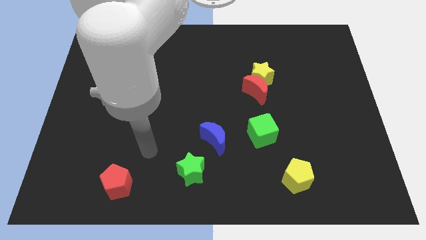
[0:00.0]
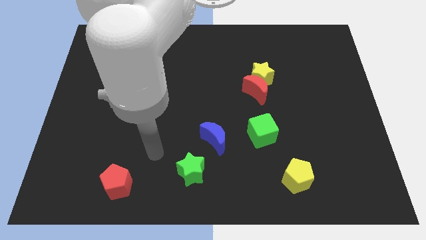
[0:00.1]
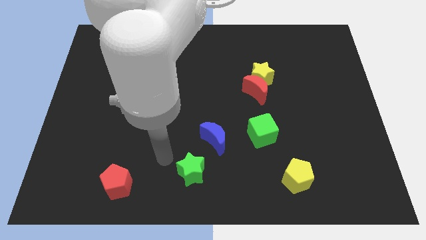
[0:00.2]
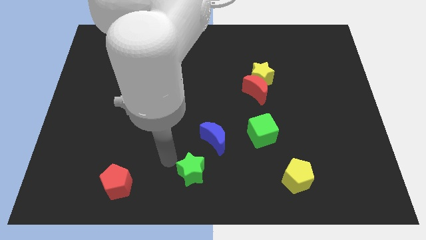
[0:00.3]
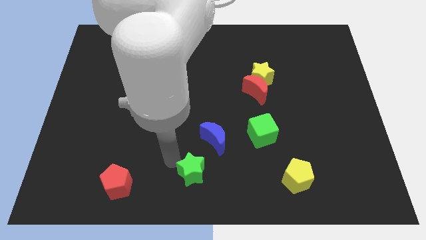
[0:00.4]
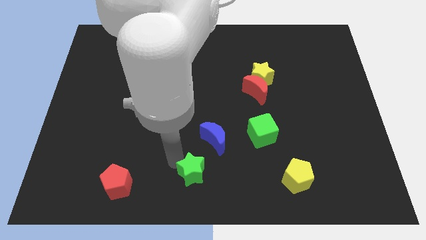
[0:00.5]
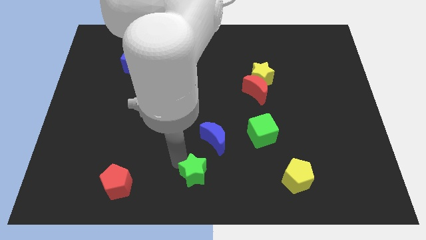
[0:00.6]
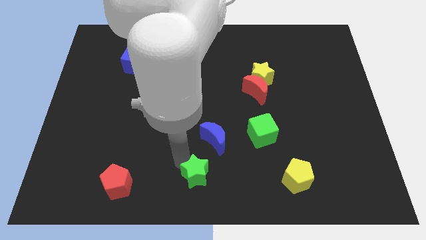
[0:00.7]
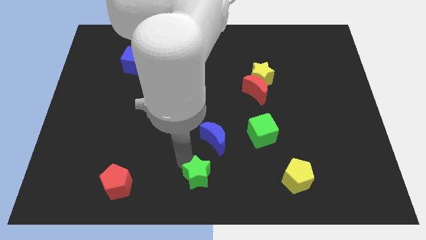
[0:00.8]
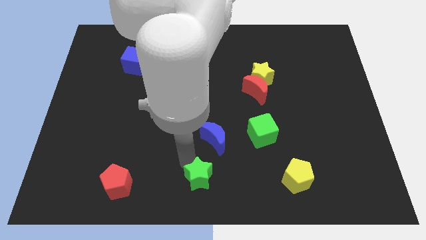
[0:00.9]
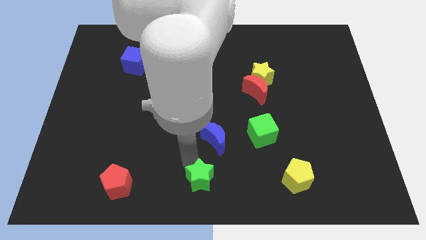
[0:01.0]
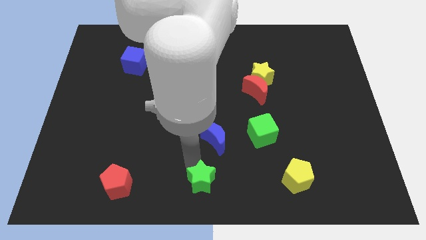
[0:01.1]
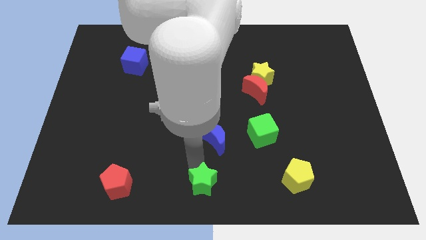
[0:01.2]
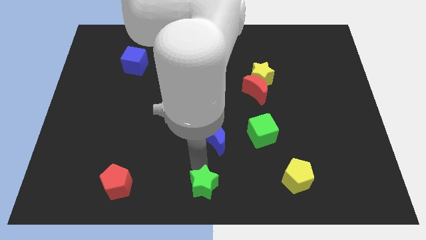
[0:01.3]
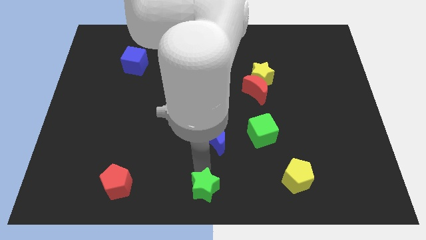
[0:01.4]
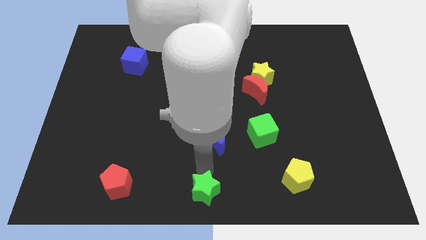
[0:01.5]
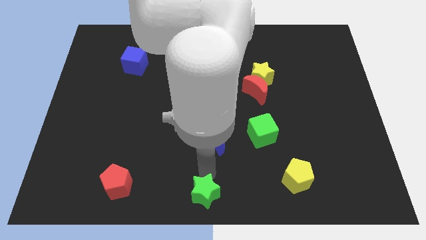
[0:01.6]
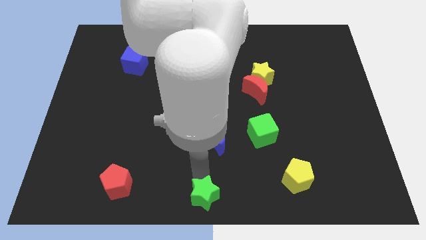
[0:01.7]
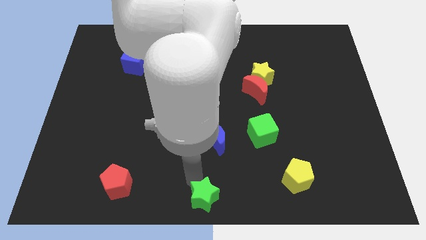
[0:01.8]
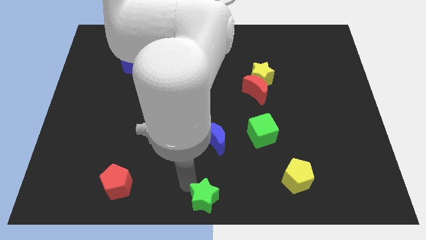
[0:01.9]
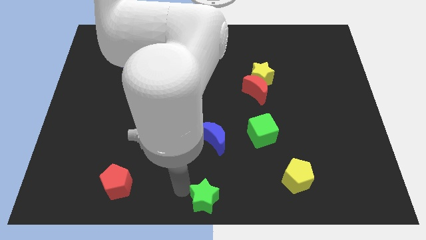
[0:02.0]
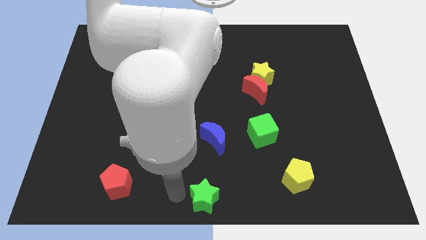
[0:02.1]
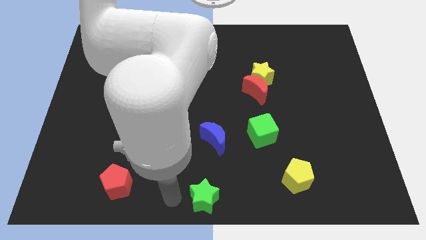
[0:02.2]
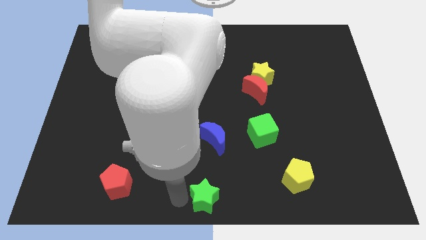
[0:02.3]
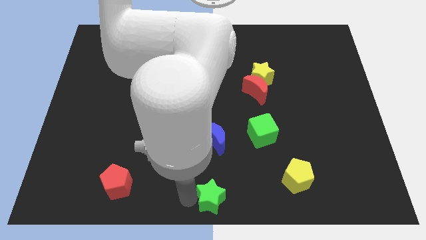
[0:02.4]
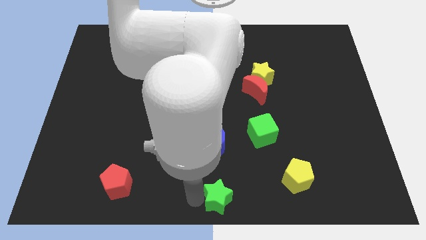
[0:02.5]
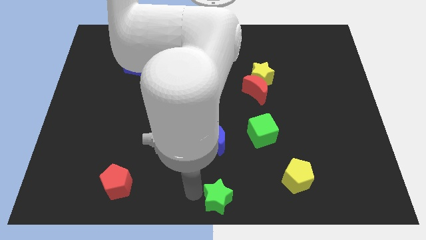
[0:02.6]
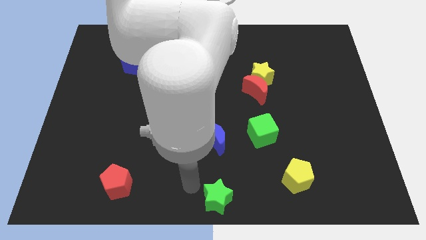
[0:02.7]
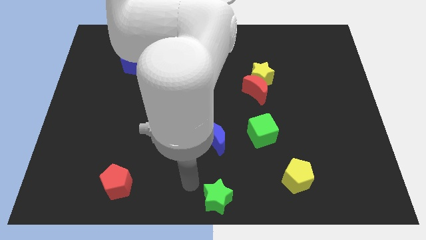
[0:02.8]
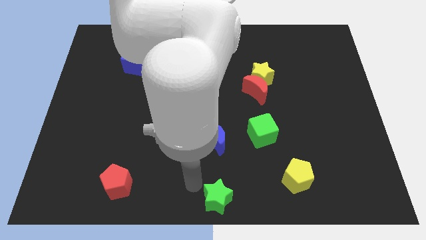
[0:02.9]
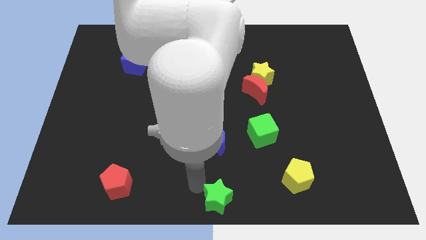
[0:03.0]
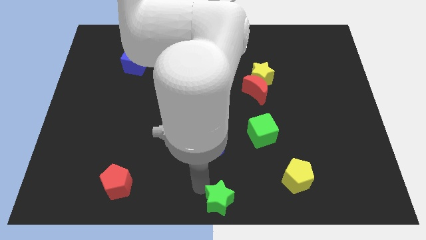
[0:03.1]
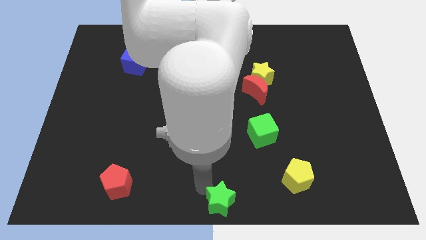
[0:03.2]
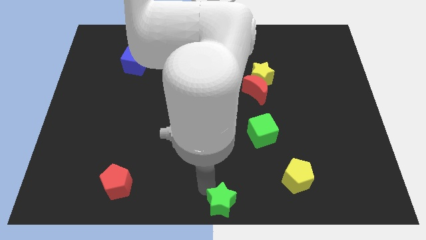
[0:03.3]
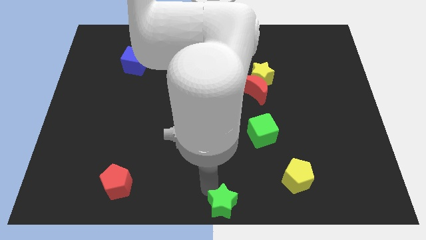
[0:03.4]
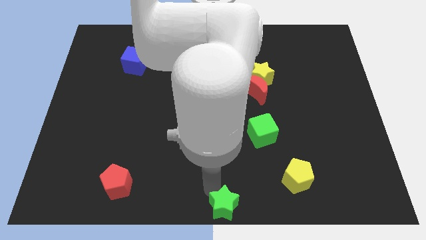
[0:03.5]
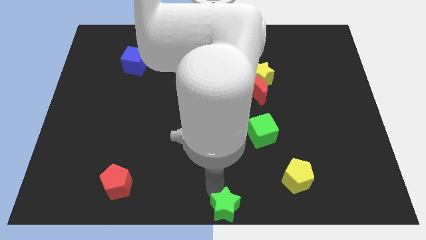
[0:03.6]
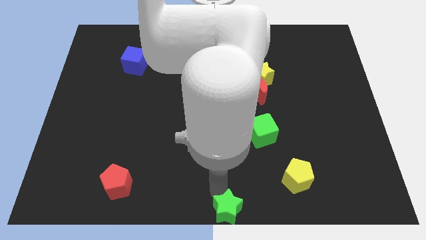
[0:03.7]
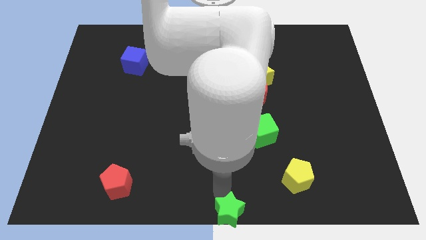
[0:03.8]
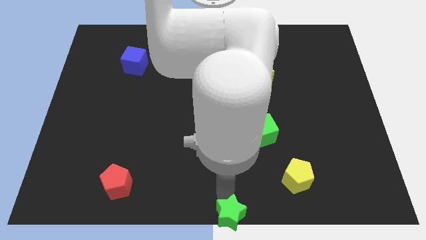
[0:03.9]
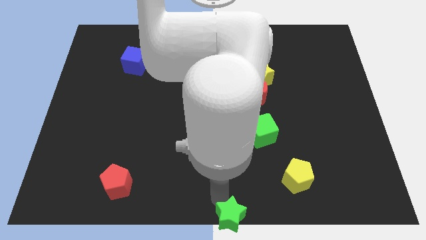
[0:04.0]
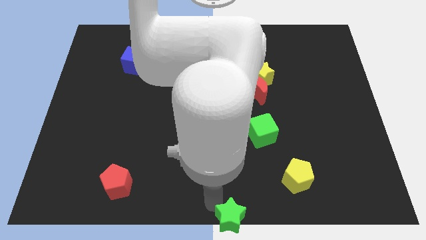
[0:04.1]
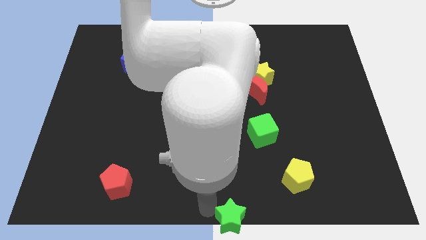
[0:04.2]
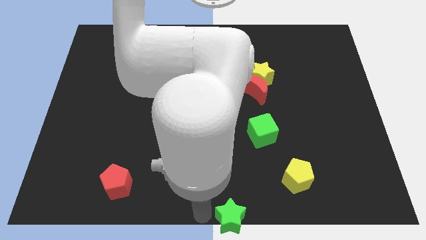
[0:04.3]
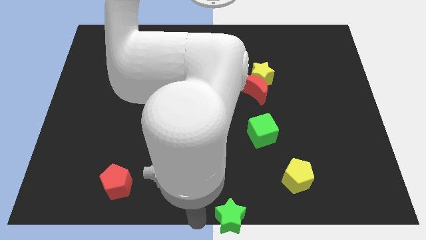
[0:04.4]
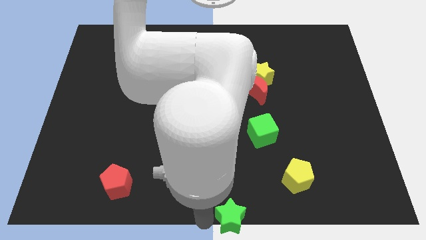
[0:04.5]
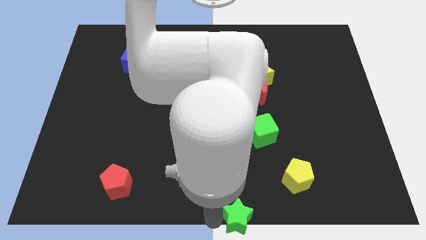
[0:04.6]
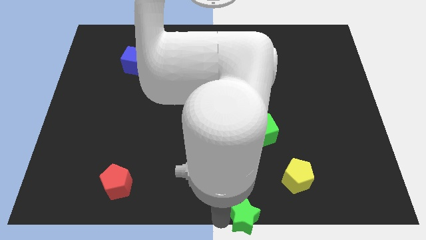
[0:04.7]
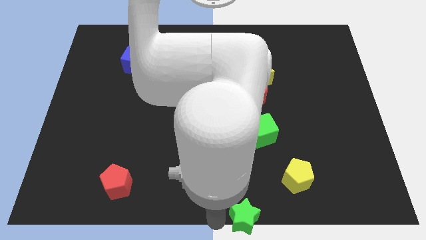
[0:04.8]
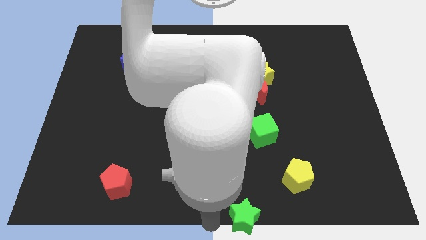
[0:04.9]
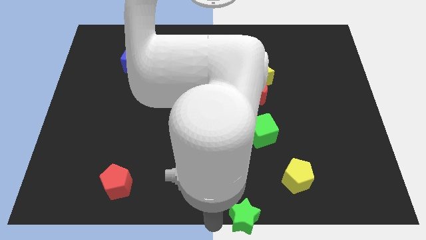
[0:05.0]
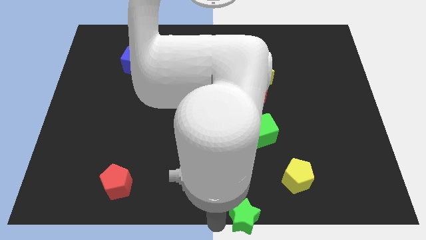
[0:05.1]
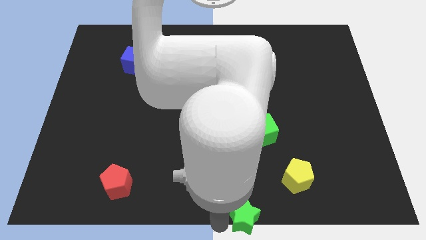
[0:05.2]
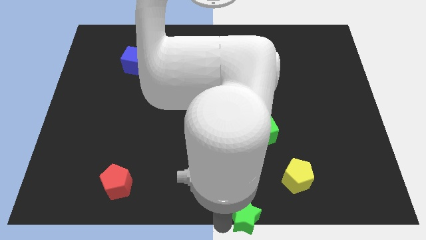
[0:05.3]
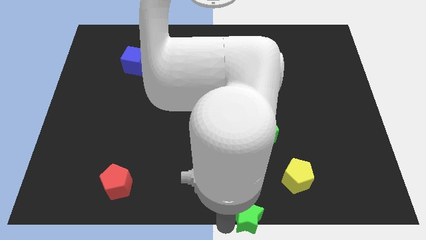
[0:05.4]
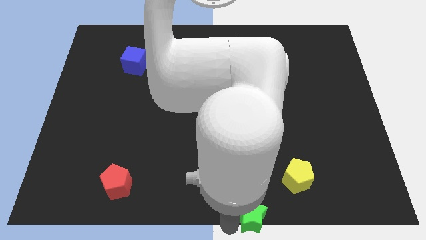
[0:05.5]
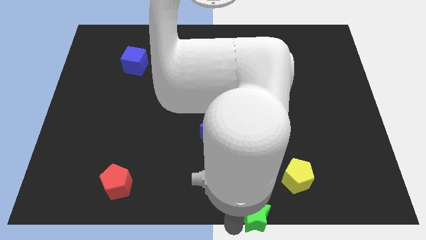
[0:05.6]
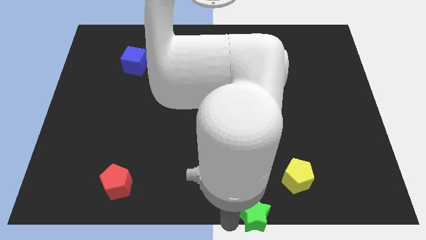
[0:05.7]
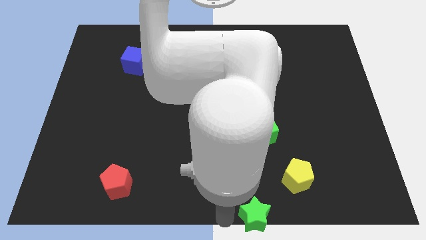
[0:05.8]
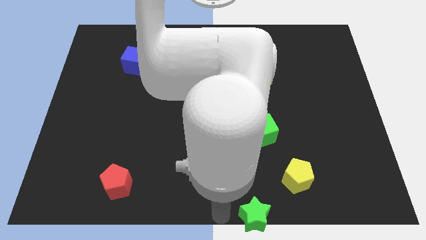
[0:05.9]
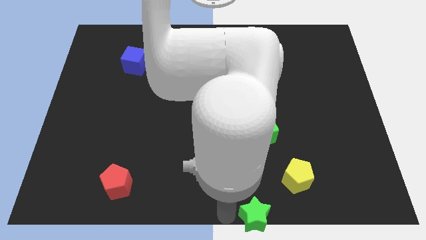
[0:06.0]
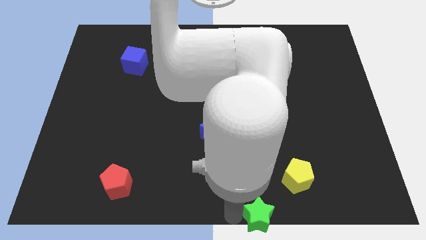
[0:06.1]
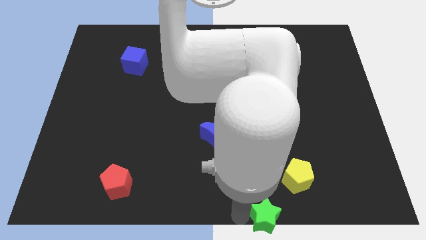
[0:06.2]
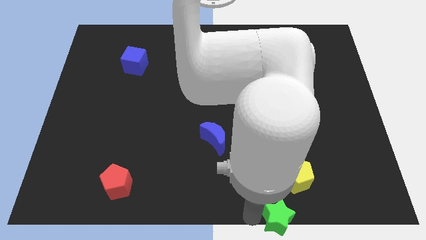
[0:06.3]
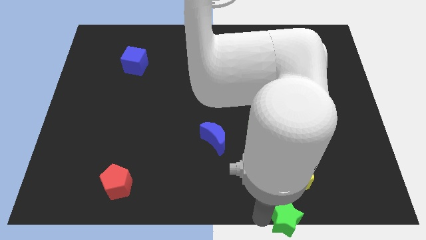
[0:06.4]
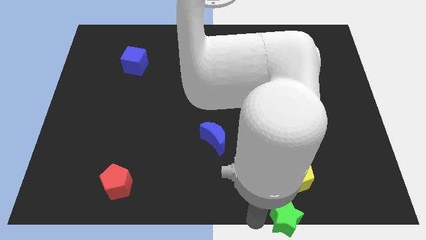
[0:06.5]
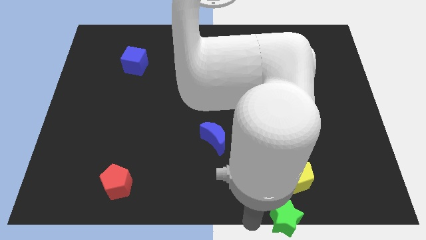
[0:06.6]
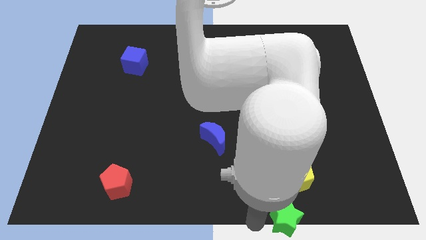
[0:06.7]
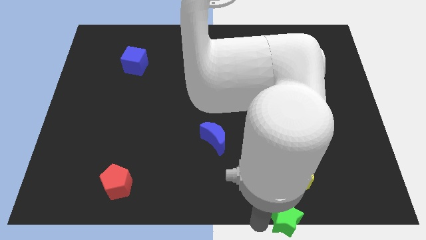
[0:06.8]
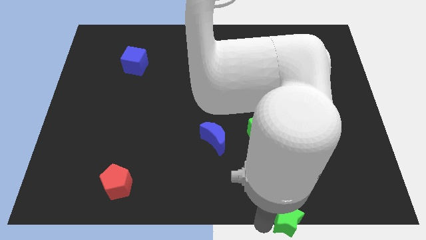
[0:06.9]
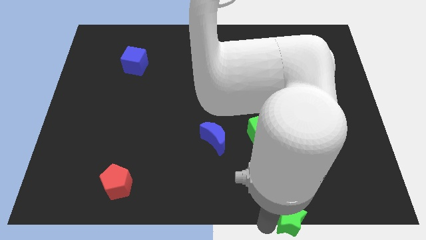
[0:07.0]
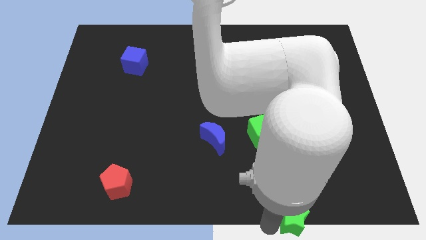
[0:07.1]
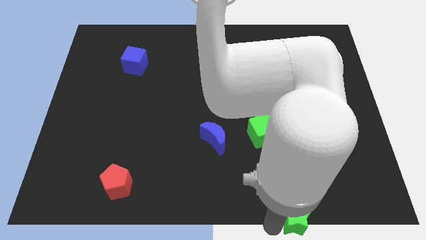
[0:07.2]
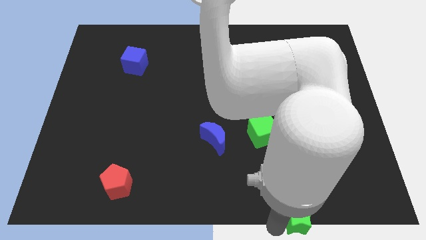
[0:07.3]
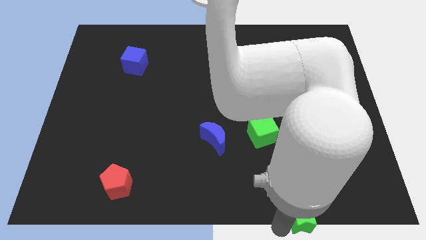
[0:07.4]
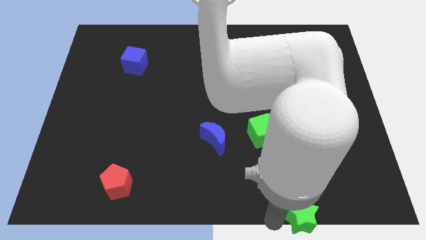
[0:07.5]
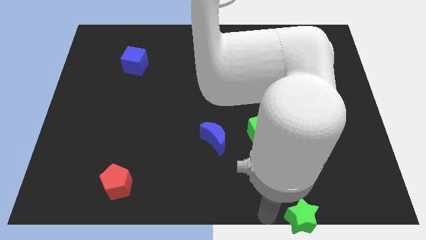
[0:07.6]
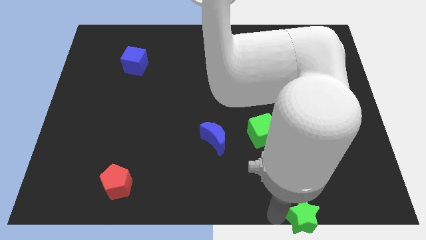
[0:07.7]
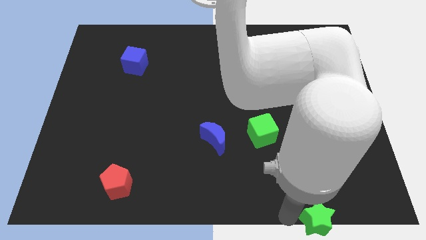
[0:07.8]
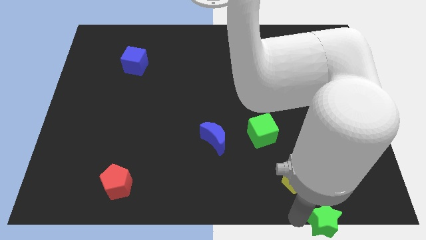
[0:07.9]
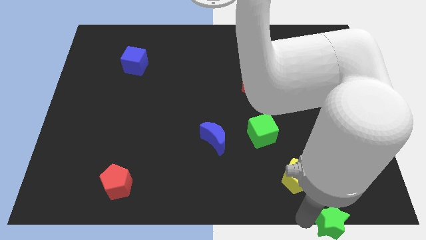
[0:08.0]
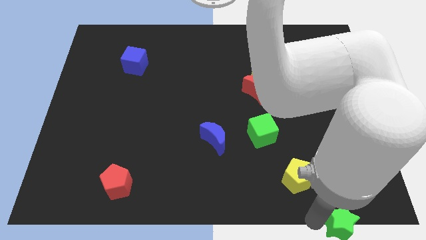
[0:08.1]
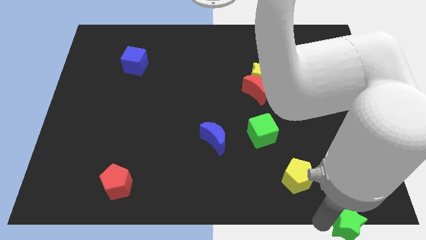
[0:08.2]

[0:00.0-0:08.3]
slide the green star to the bottom right of the board
